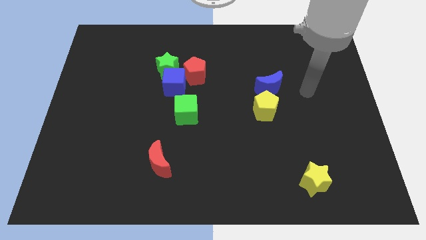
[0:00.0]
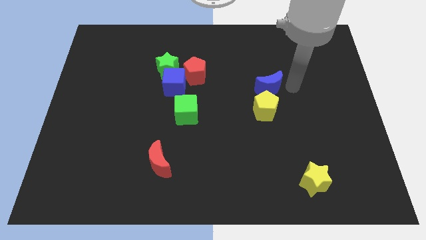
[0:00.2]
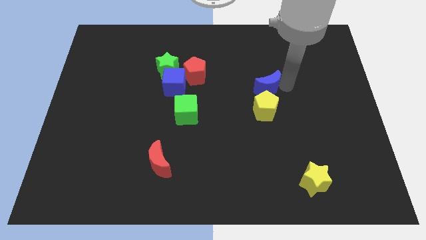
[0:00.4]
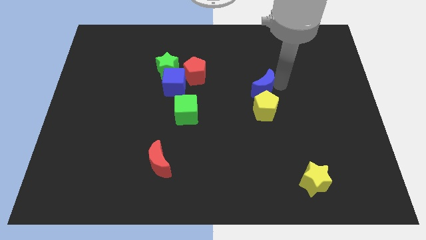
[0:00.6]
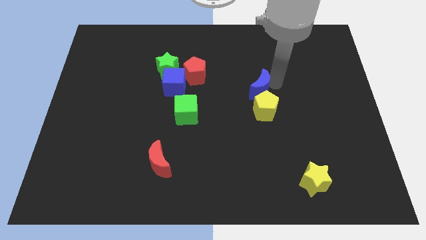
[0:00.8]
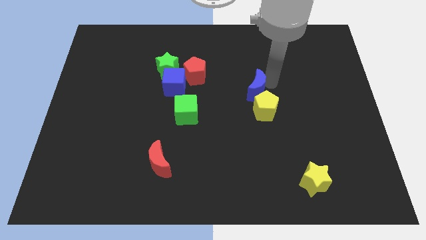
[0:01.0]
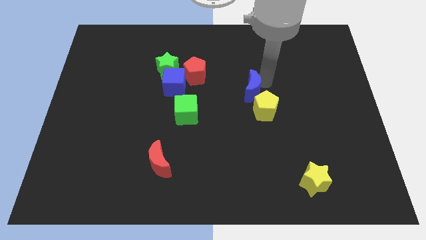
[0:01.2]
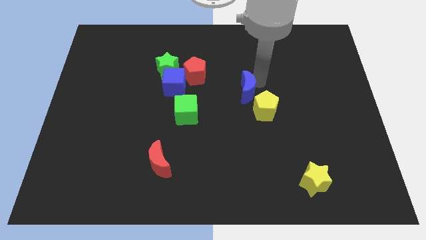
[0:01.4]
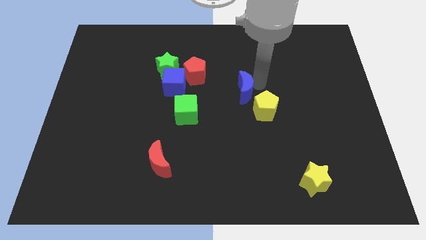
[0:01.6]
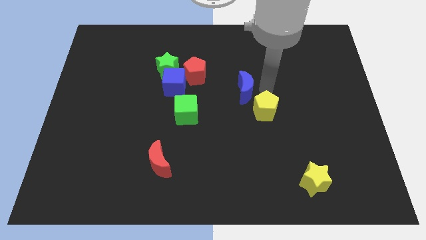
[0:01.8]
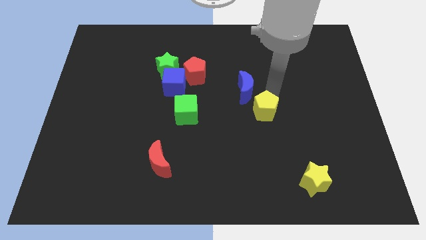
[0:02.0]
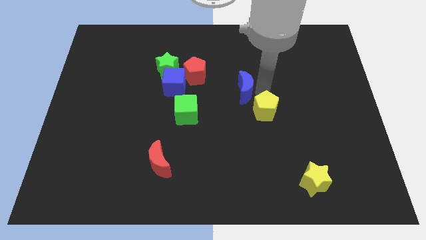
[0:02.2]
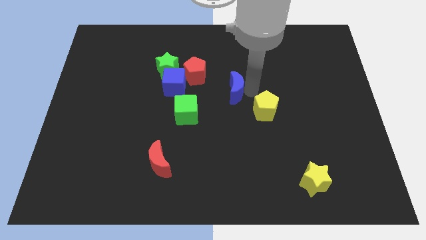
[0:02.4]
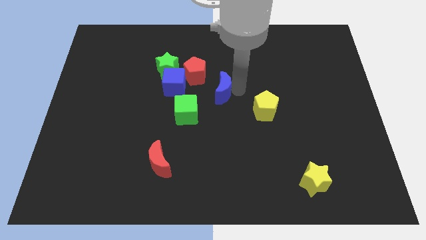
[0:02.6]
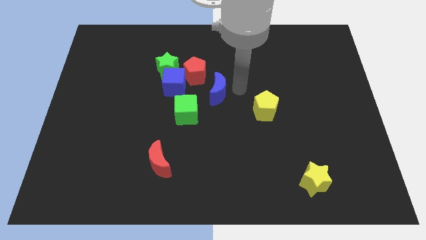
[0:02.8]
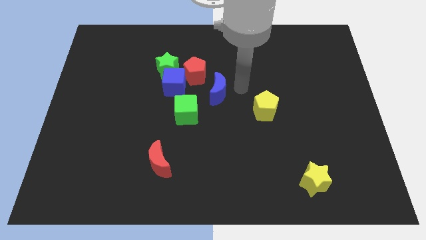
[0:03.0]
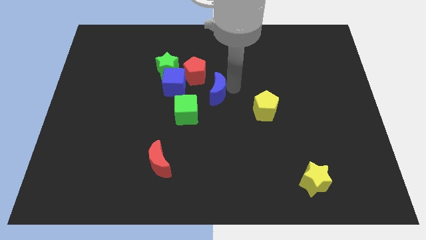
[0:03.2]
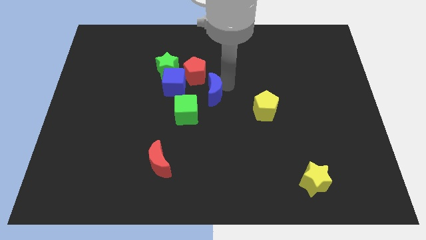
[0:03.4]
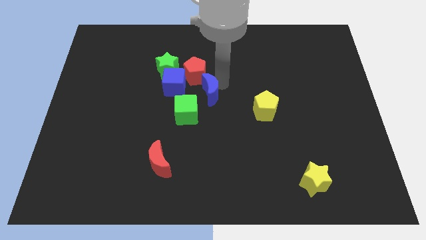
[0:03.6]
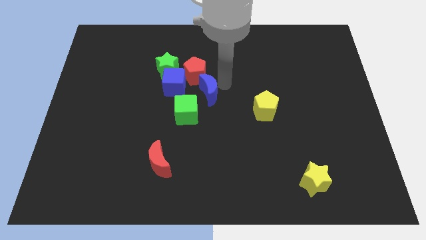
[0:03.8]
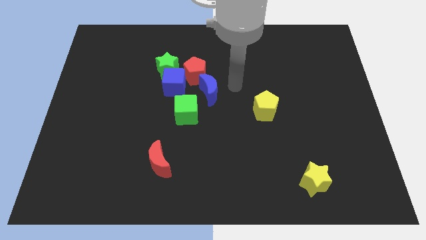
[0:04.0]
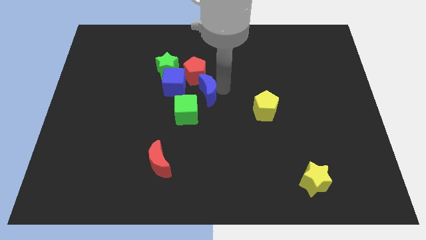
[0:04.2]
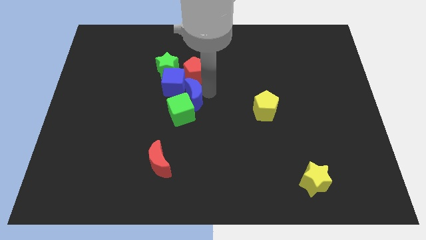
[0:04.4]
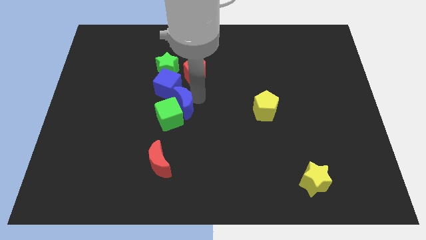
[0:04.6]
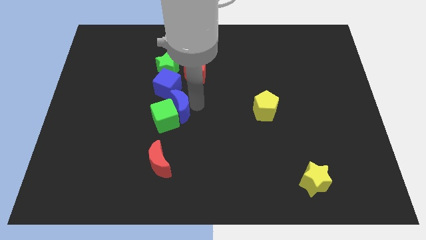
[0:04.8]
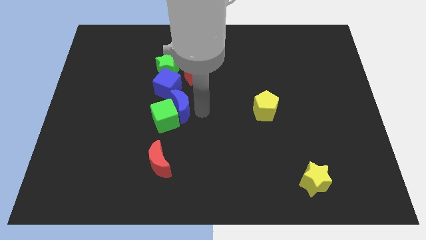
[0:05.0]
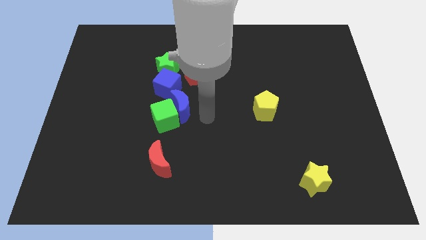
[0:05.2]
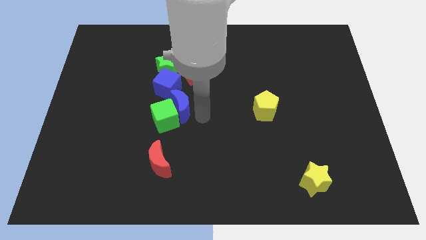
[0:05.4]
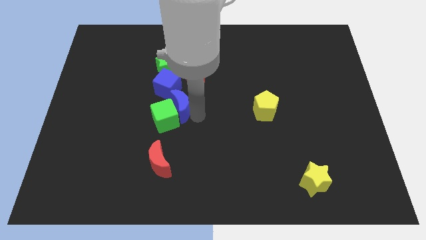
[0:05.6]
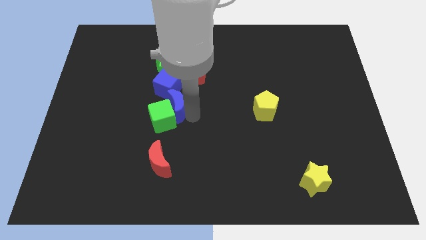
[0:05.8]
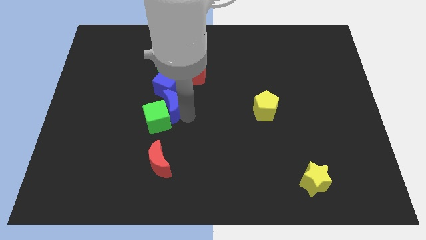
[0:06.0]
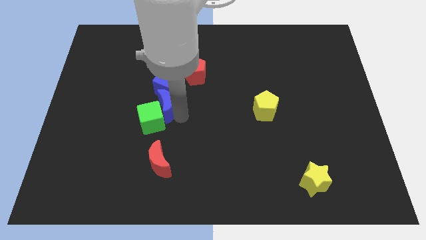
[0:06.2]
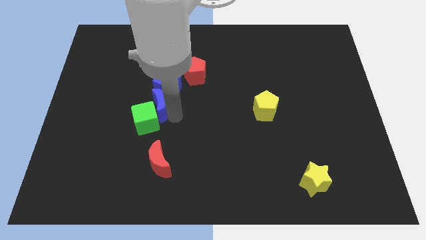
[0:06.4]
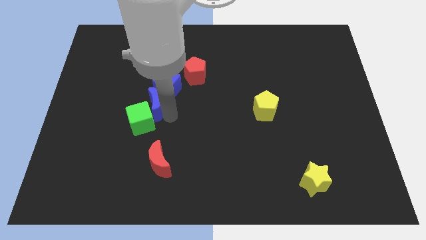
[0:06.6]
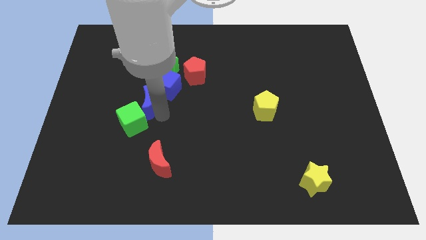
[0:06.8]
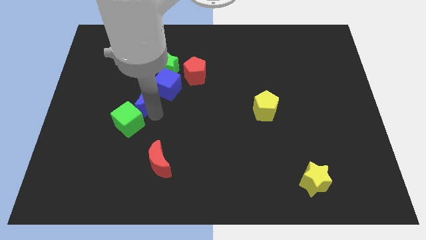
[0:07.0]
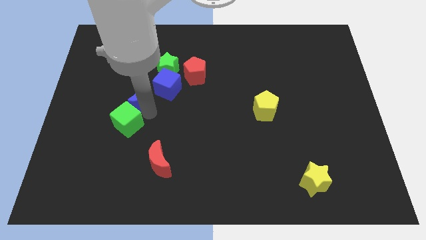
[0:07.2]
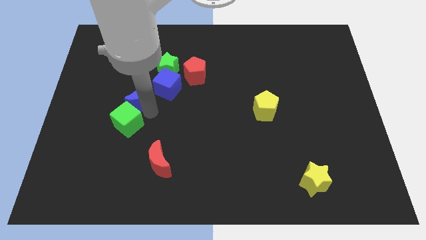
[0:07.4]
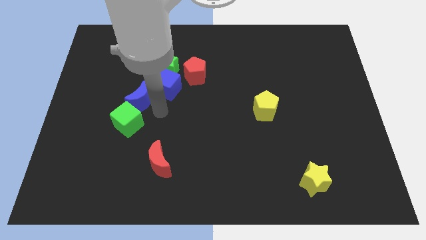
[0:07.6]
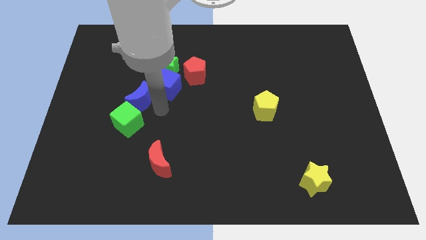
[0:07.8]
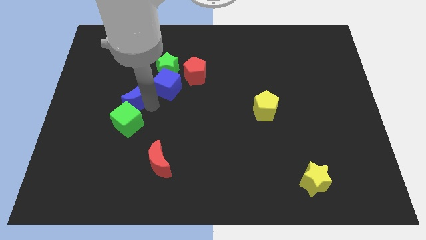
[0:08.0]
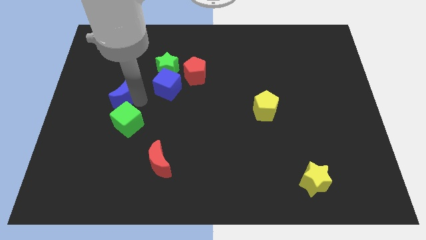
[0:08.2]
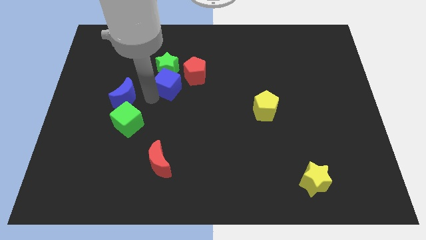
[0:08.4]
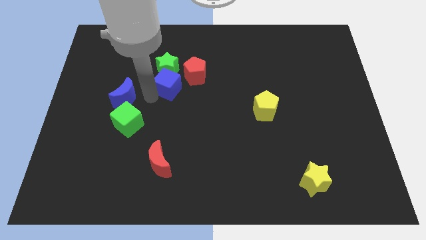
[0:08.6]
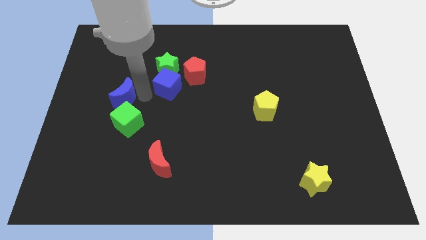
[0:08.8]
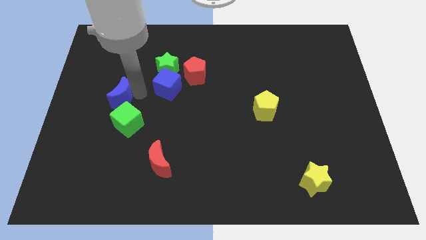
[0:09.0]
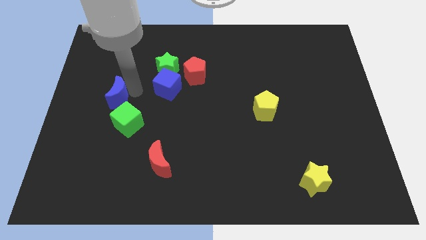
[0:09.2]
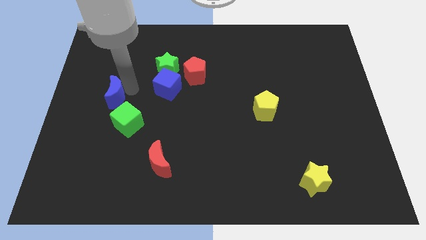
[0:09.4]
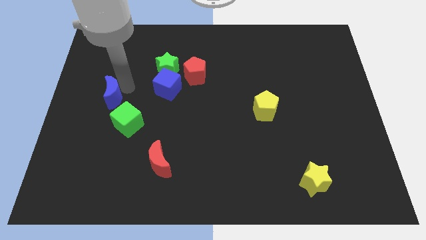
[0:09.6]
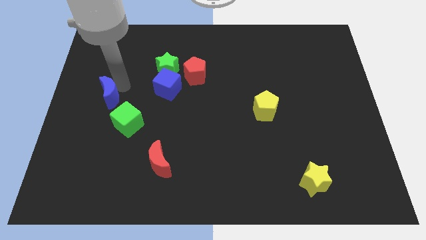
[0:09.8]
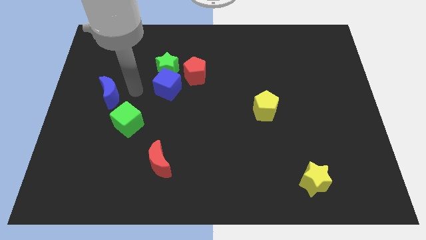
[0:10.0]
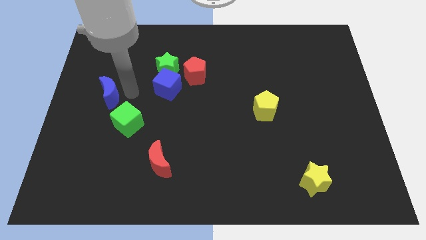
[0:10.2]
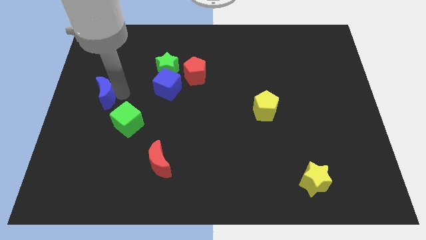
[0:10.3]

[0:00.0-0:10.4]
put the blue moon to the left side
